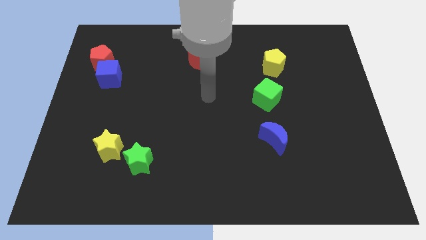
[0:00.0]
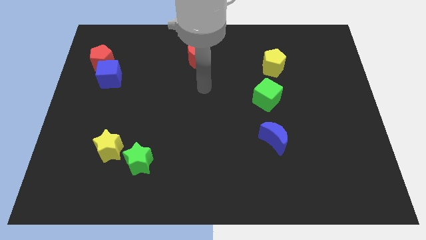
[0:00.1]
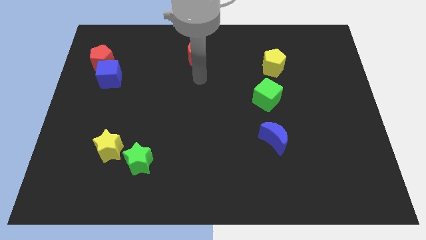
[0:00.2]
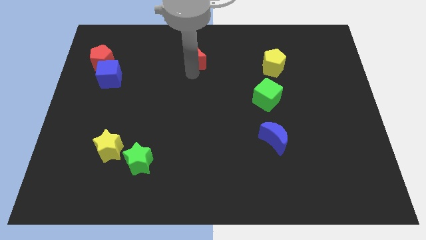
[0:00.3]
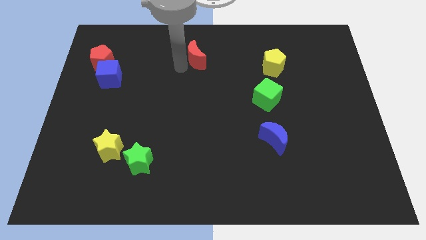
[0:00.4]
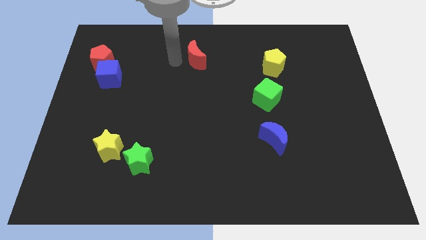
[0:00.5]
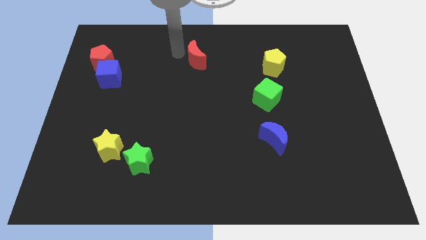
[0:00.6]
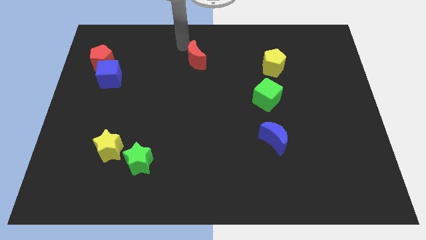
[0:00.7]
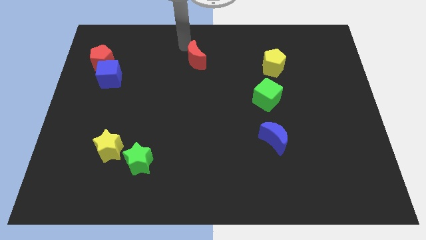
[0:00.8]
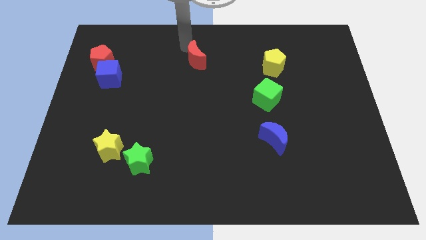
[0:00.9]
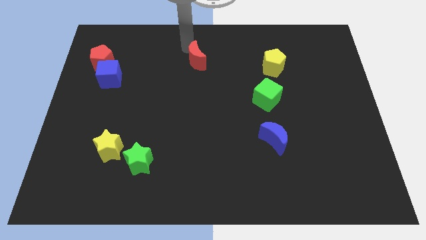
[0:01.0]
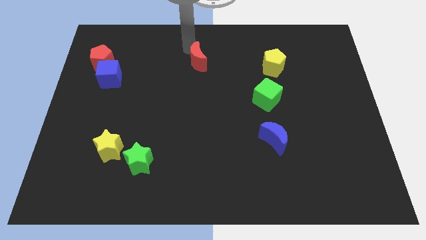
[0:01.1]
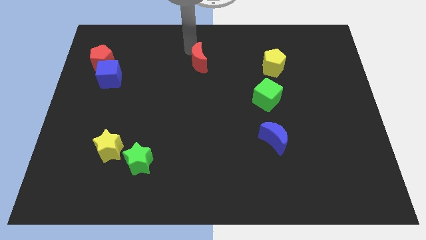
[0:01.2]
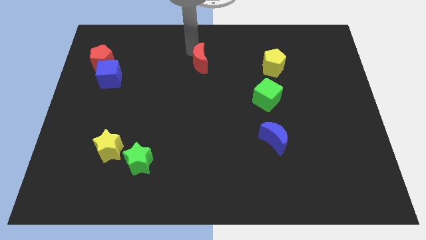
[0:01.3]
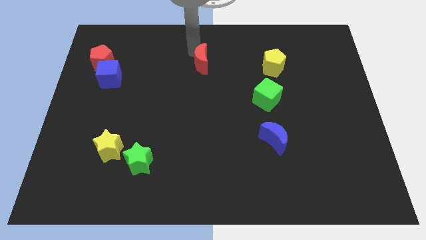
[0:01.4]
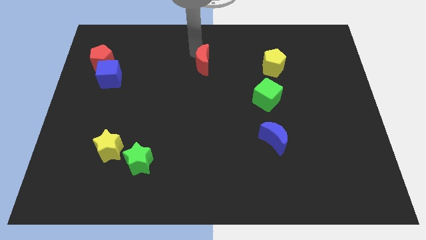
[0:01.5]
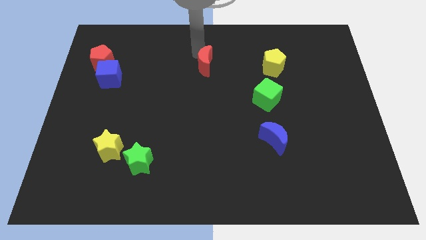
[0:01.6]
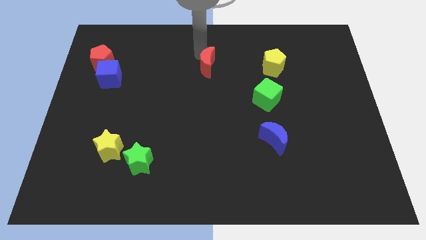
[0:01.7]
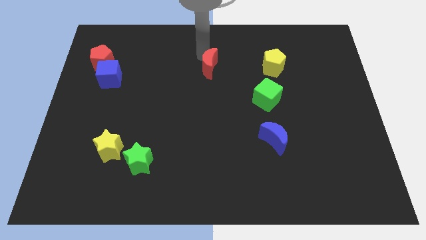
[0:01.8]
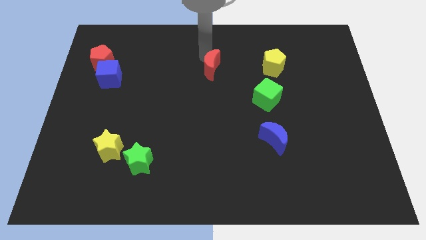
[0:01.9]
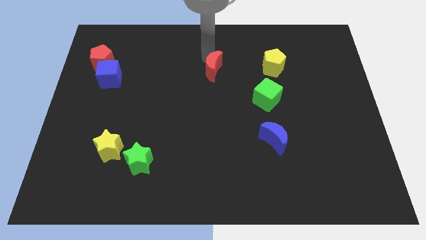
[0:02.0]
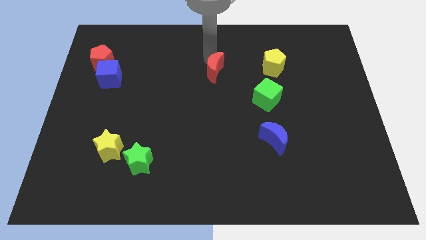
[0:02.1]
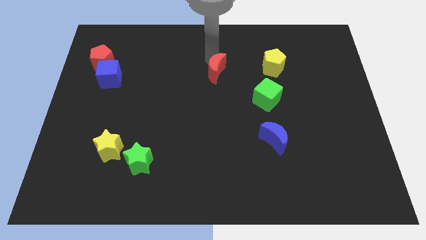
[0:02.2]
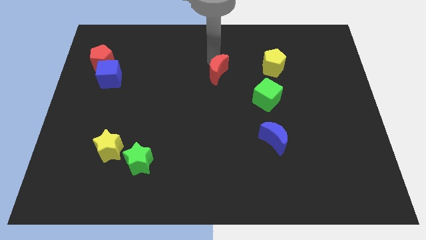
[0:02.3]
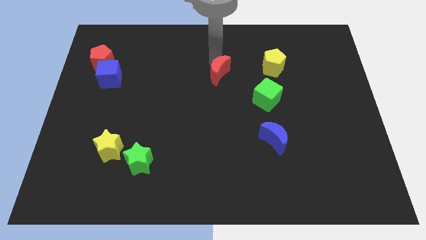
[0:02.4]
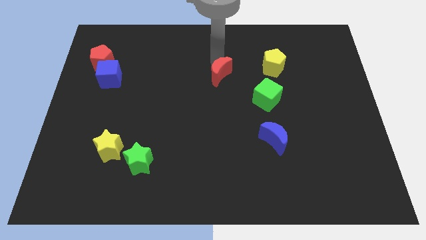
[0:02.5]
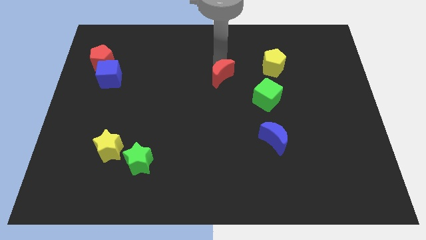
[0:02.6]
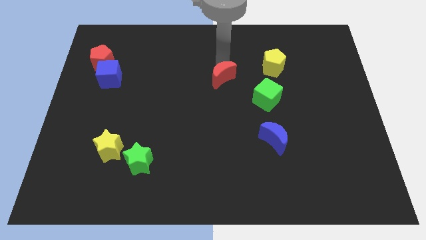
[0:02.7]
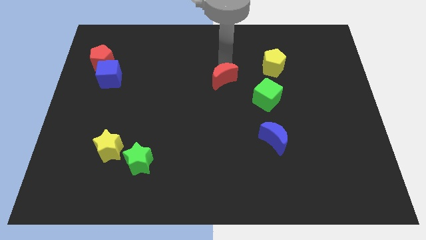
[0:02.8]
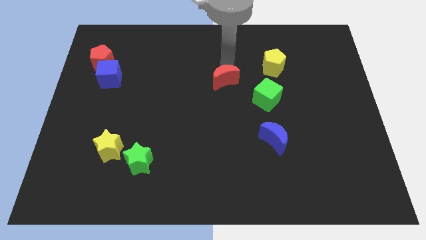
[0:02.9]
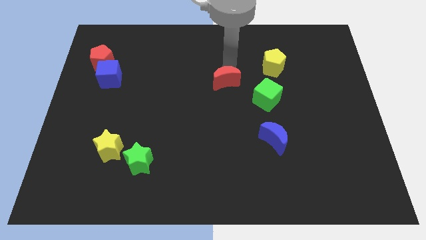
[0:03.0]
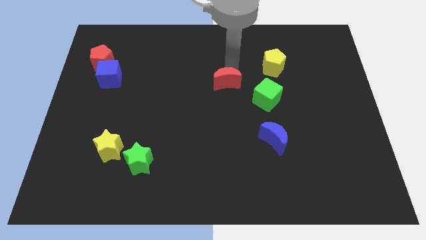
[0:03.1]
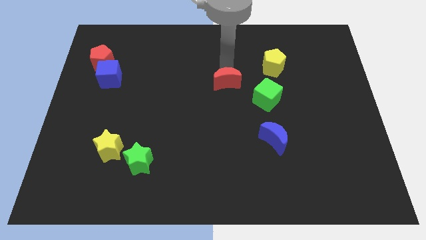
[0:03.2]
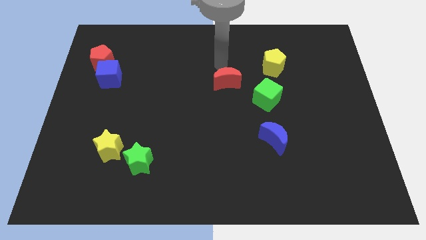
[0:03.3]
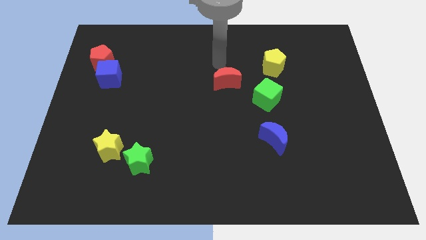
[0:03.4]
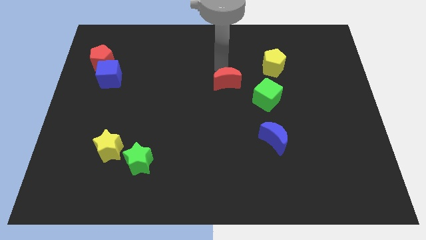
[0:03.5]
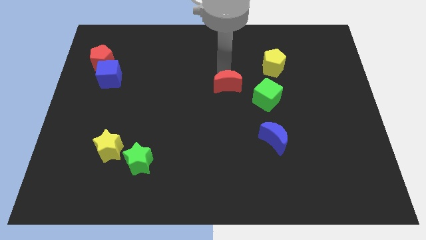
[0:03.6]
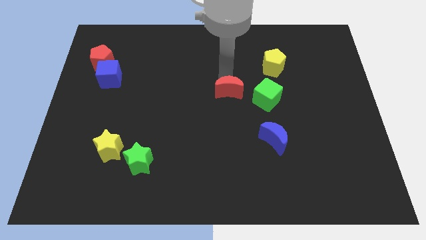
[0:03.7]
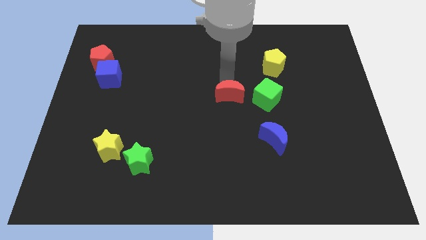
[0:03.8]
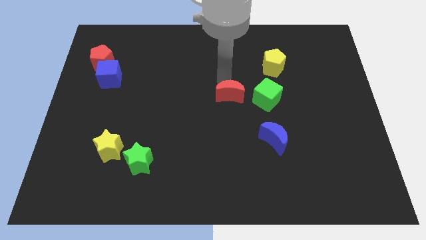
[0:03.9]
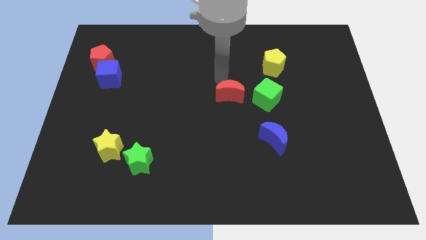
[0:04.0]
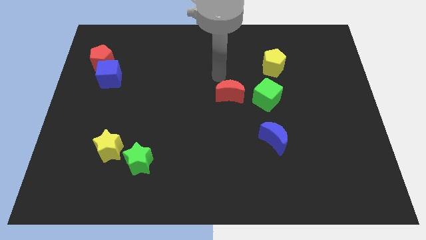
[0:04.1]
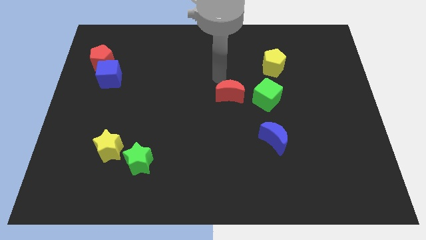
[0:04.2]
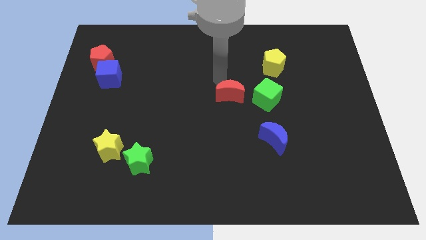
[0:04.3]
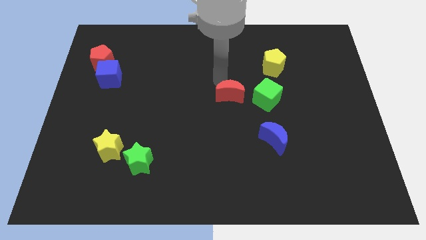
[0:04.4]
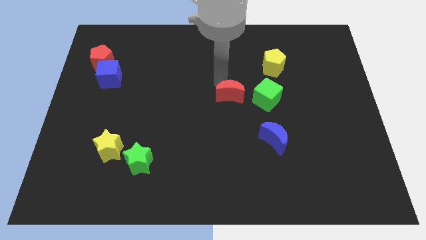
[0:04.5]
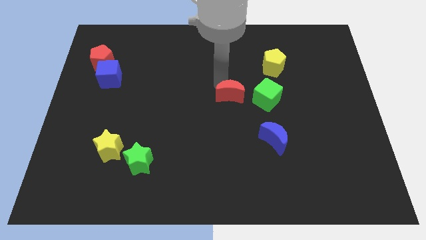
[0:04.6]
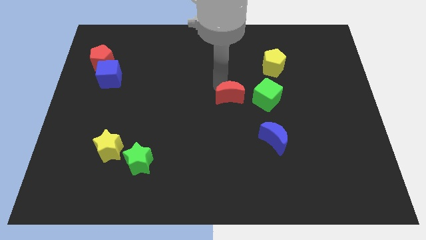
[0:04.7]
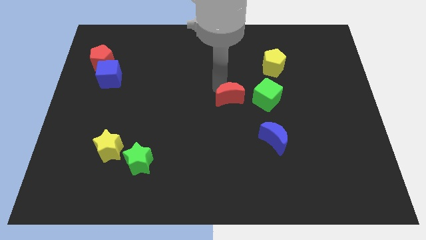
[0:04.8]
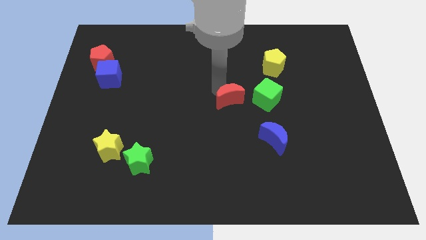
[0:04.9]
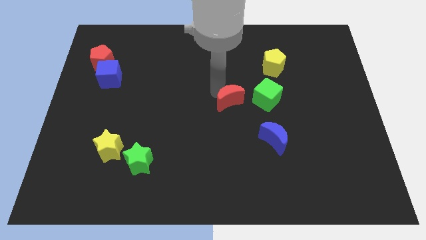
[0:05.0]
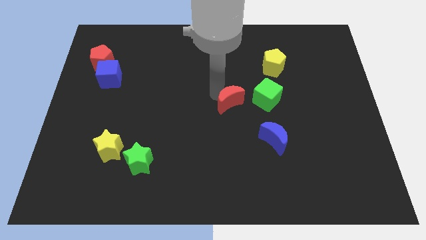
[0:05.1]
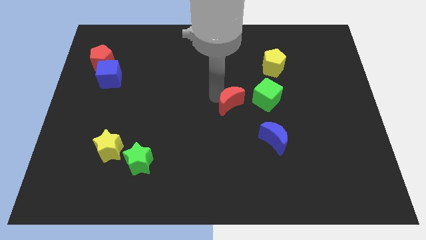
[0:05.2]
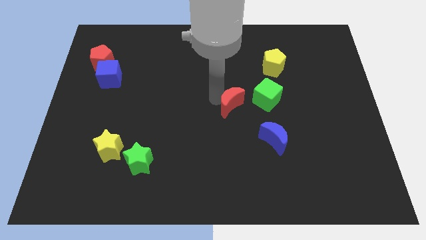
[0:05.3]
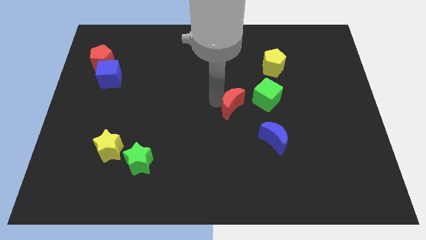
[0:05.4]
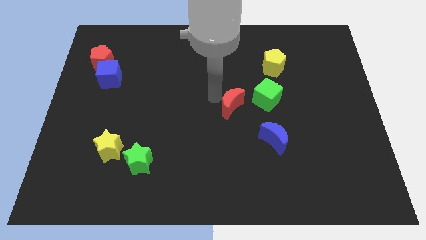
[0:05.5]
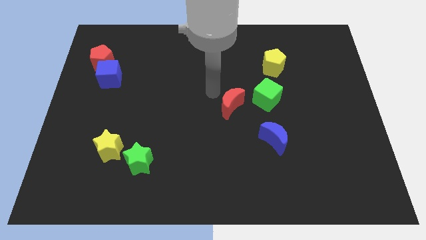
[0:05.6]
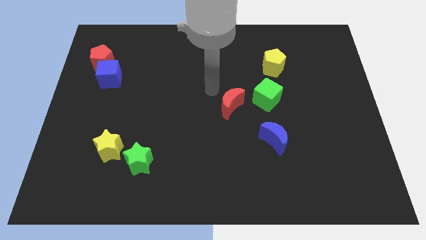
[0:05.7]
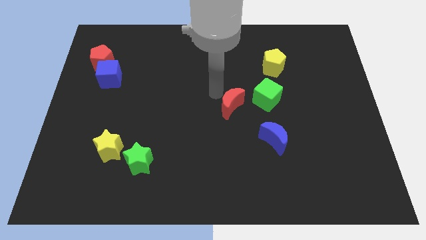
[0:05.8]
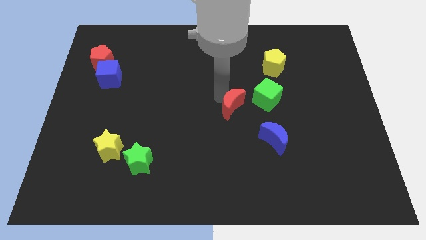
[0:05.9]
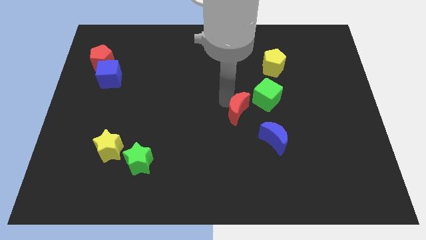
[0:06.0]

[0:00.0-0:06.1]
put the red moon to the top left side of the blue moon

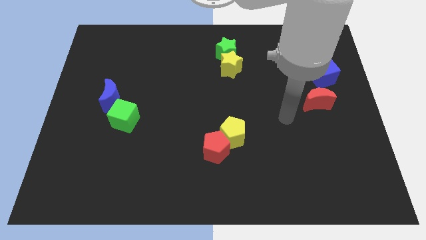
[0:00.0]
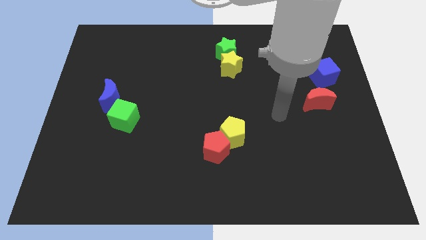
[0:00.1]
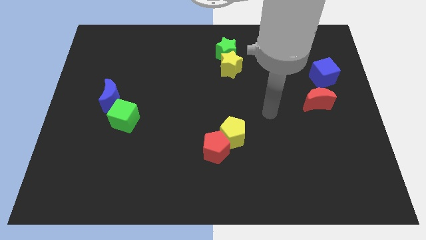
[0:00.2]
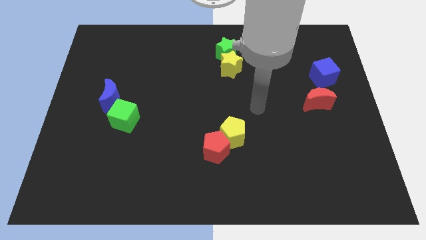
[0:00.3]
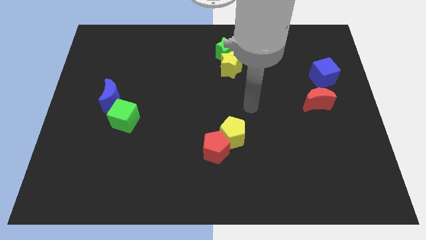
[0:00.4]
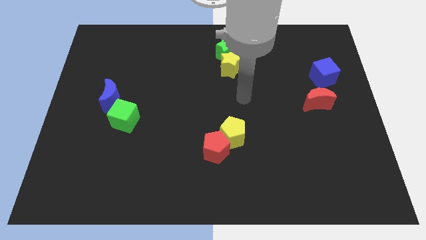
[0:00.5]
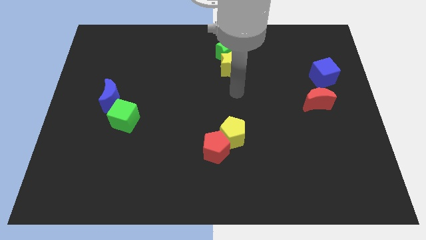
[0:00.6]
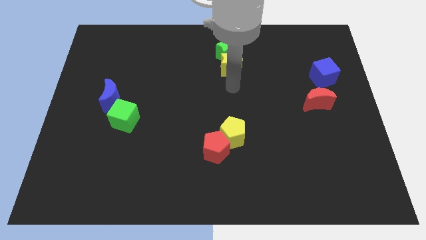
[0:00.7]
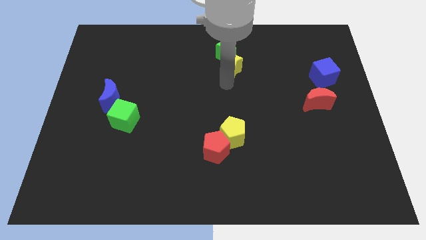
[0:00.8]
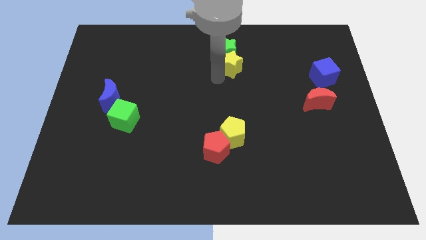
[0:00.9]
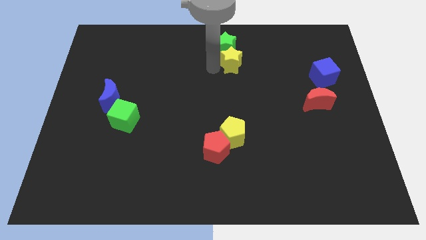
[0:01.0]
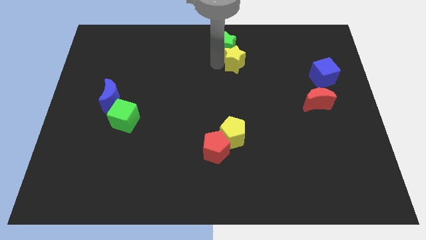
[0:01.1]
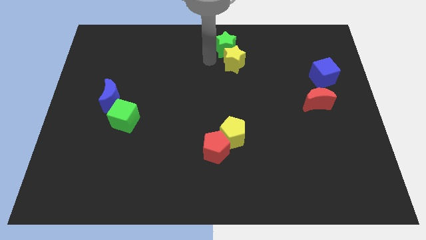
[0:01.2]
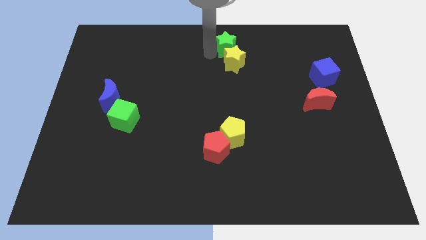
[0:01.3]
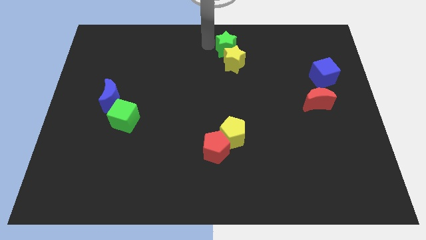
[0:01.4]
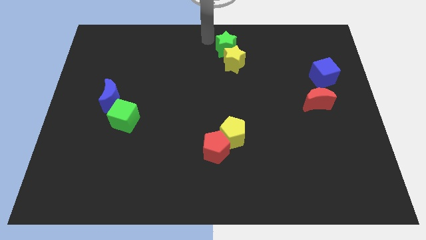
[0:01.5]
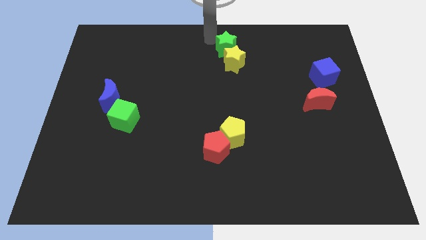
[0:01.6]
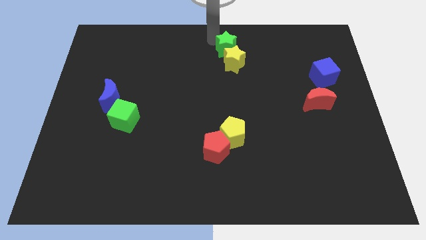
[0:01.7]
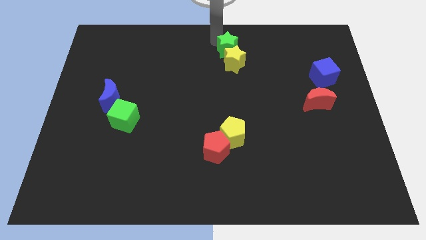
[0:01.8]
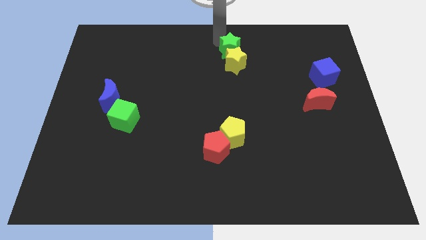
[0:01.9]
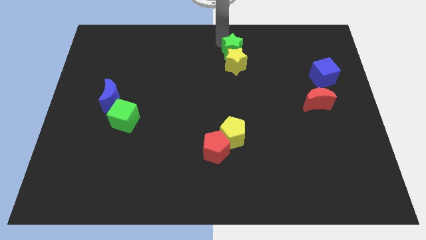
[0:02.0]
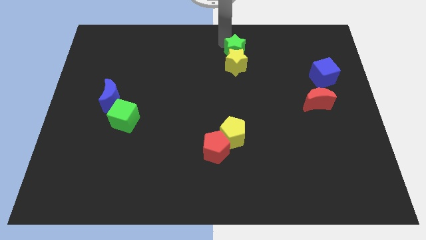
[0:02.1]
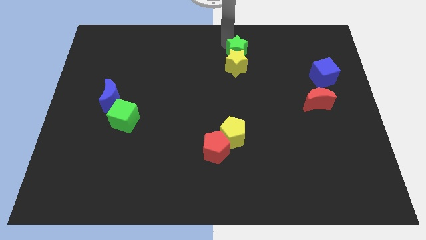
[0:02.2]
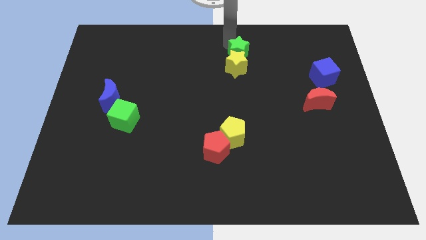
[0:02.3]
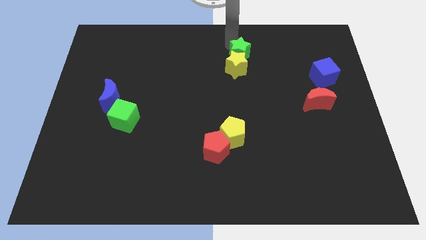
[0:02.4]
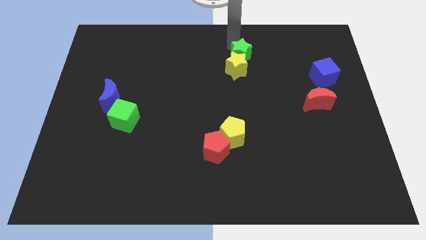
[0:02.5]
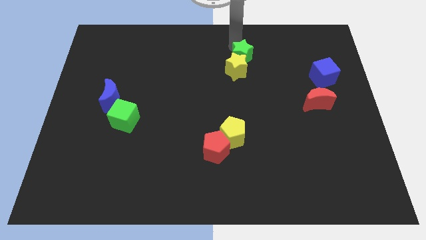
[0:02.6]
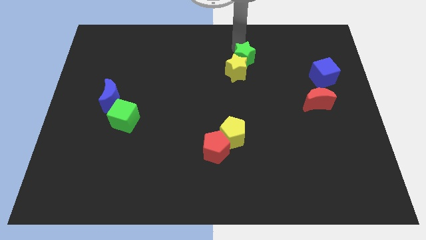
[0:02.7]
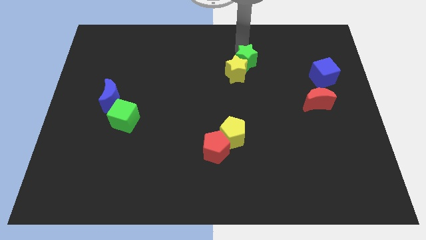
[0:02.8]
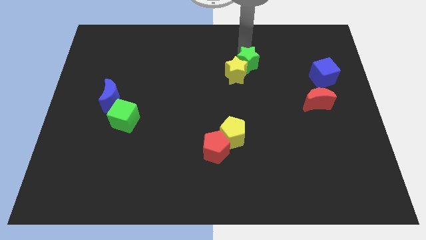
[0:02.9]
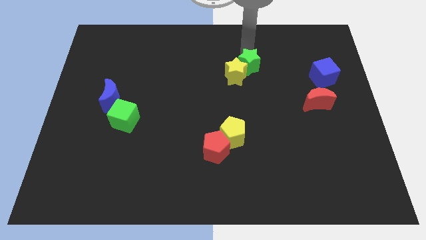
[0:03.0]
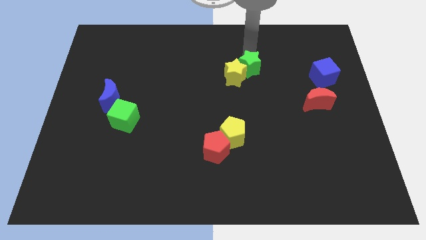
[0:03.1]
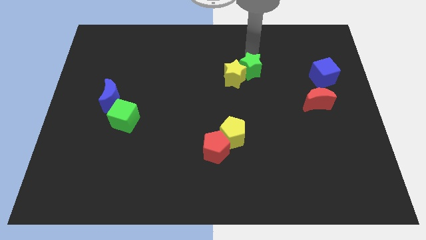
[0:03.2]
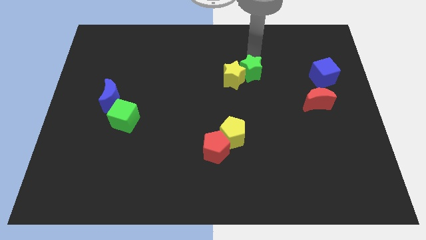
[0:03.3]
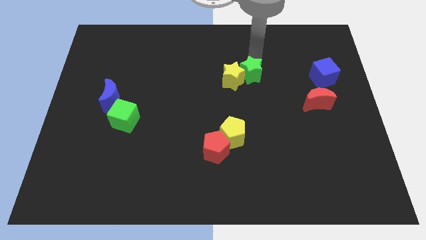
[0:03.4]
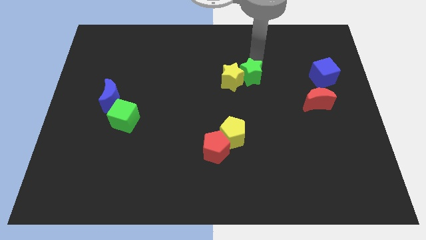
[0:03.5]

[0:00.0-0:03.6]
push the green star to the bottom right of the yellow star
